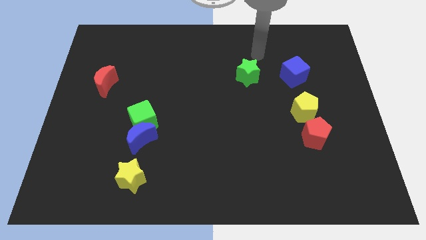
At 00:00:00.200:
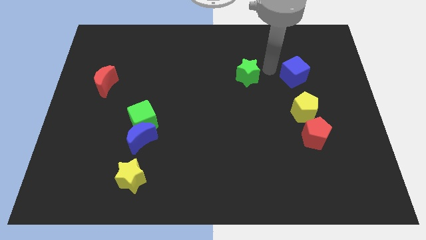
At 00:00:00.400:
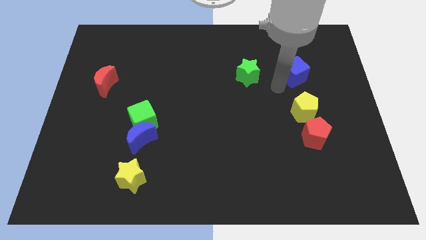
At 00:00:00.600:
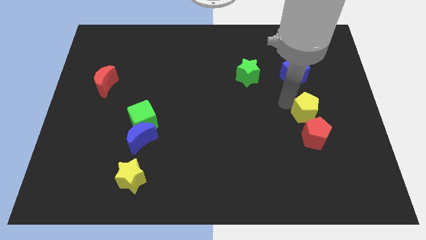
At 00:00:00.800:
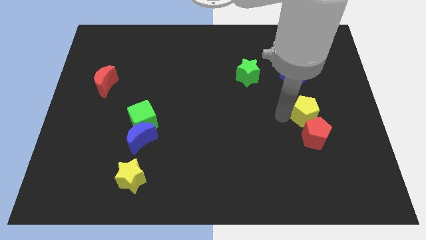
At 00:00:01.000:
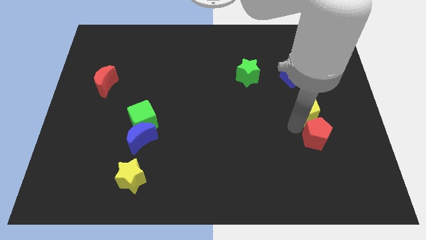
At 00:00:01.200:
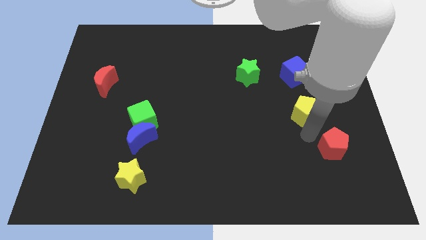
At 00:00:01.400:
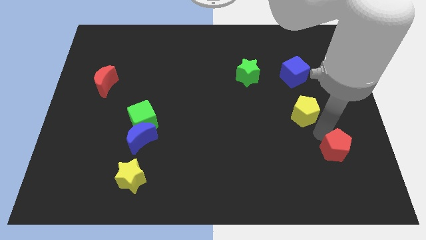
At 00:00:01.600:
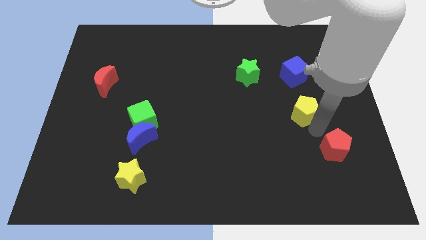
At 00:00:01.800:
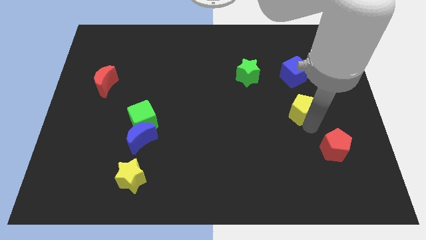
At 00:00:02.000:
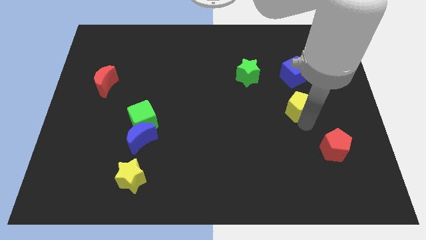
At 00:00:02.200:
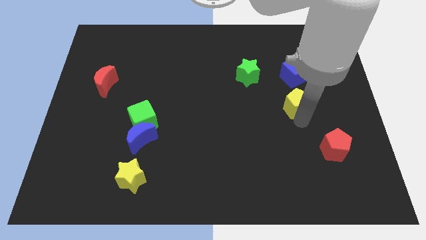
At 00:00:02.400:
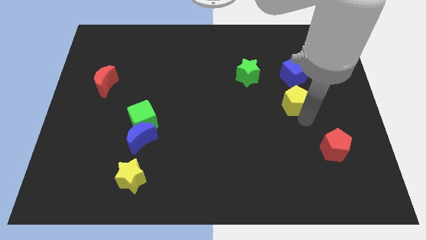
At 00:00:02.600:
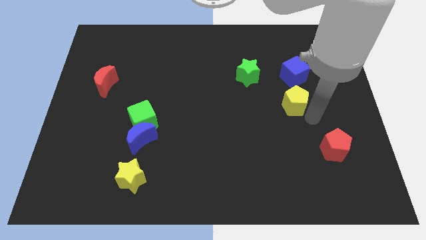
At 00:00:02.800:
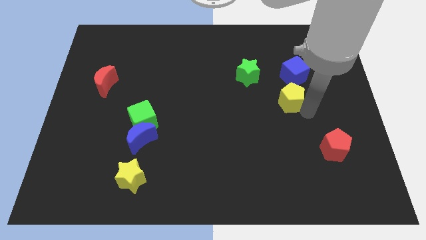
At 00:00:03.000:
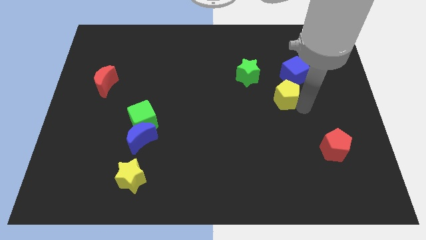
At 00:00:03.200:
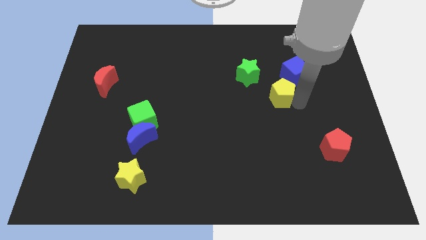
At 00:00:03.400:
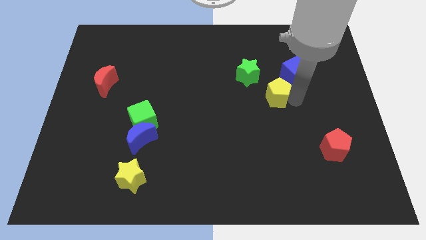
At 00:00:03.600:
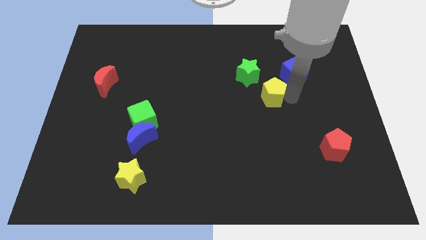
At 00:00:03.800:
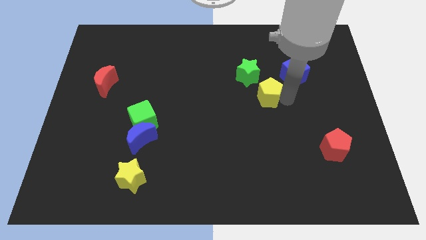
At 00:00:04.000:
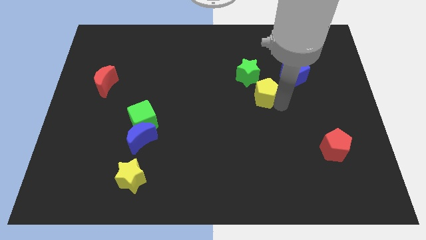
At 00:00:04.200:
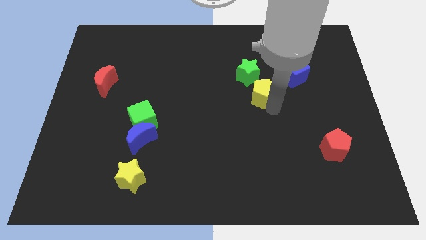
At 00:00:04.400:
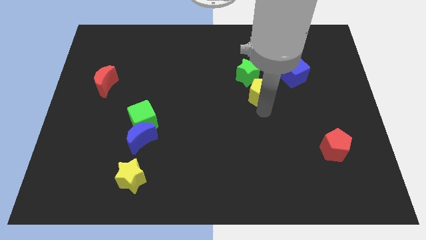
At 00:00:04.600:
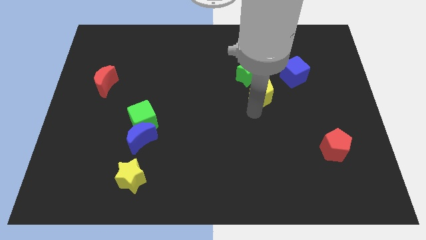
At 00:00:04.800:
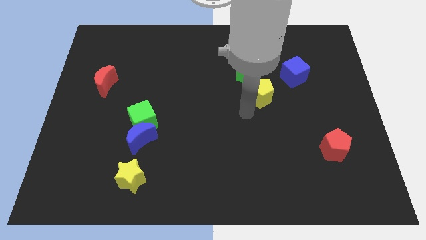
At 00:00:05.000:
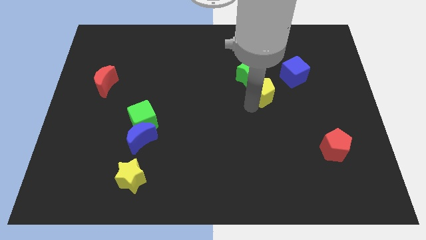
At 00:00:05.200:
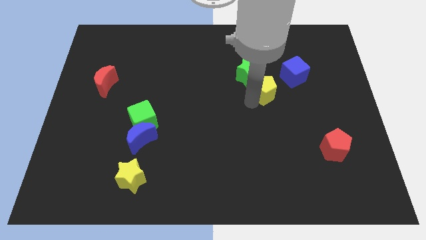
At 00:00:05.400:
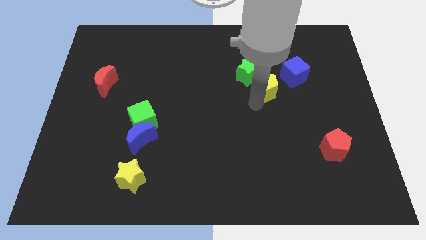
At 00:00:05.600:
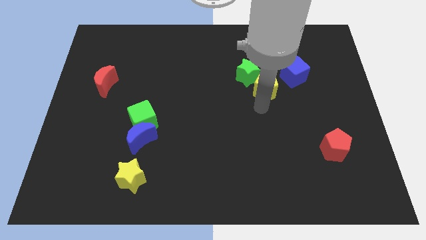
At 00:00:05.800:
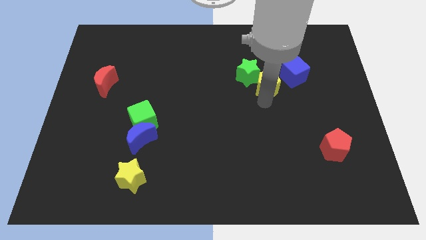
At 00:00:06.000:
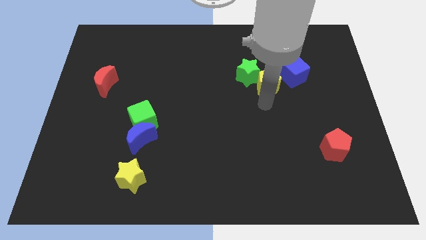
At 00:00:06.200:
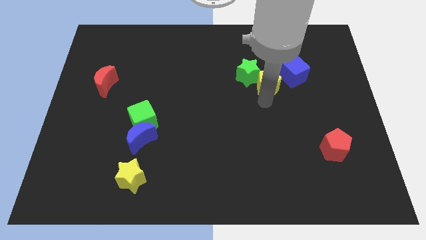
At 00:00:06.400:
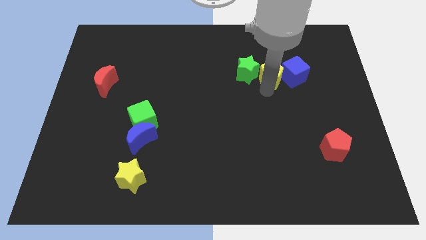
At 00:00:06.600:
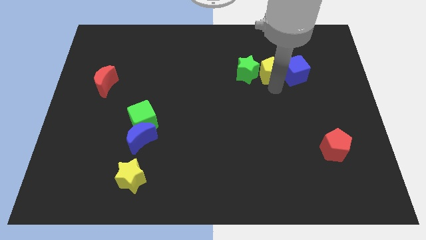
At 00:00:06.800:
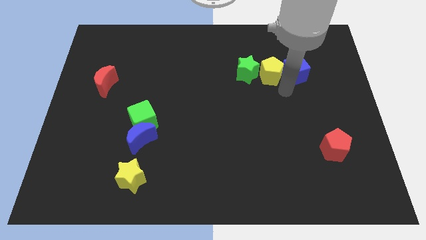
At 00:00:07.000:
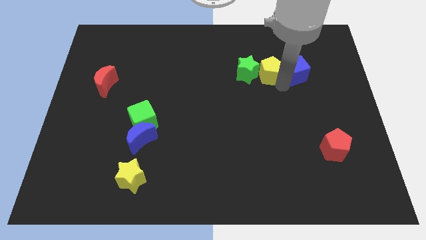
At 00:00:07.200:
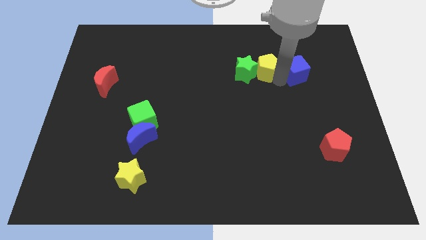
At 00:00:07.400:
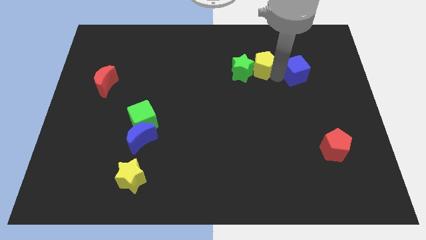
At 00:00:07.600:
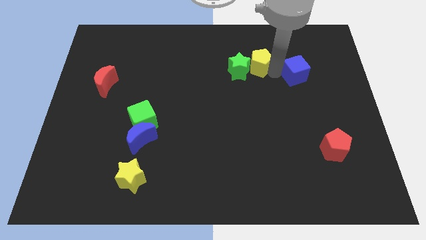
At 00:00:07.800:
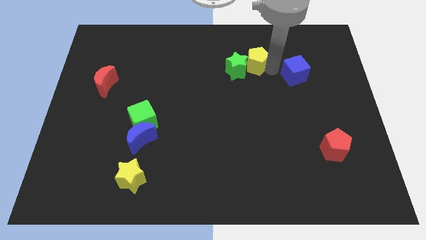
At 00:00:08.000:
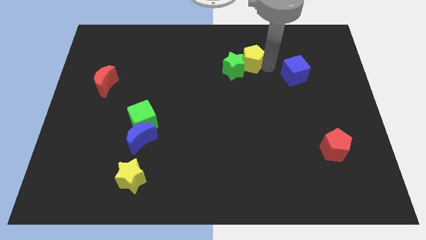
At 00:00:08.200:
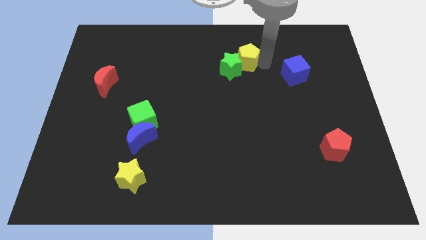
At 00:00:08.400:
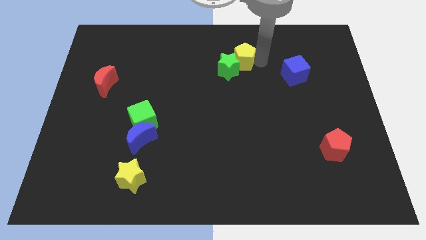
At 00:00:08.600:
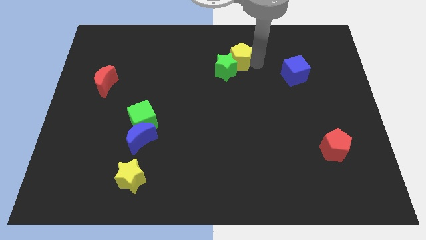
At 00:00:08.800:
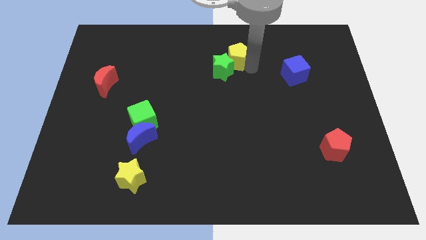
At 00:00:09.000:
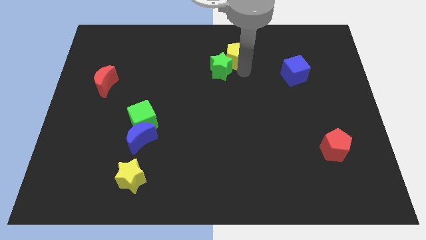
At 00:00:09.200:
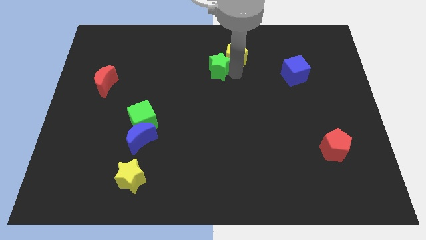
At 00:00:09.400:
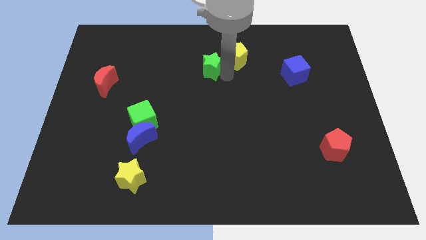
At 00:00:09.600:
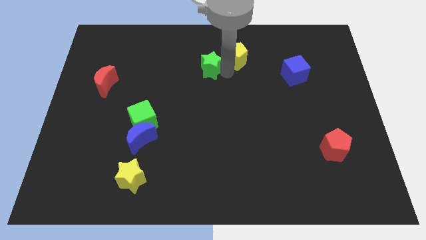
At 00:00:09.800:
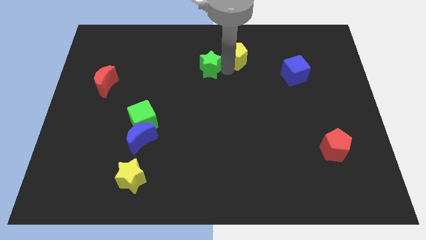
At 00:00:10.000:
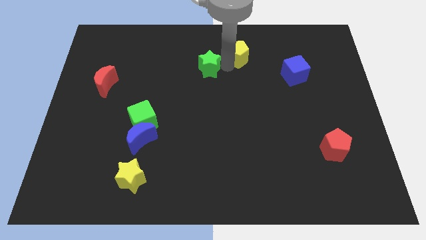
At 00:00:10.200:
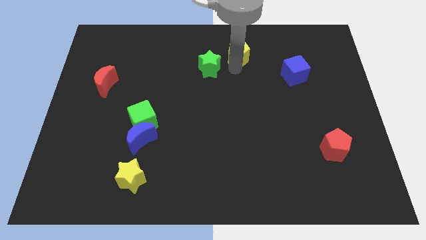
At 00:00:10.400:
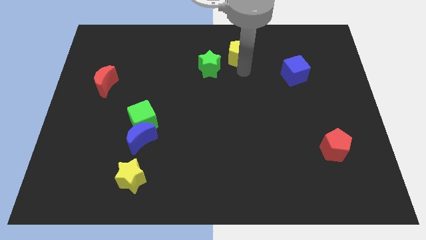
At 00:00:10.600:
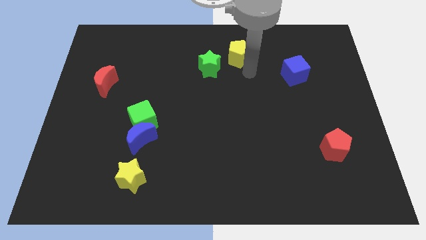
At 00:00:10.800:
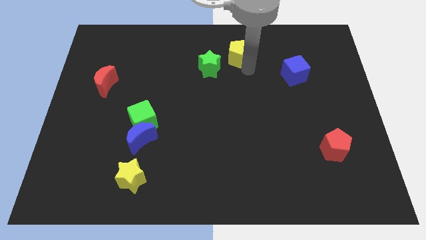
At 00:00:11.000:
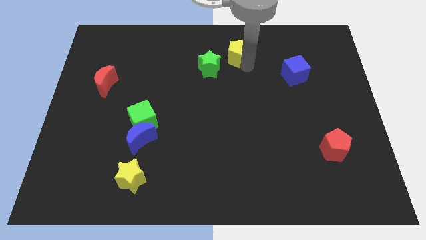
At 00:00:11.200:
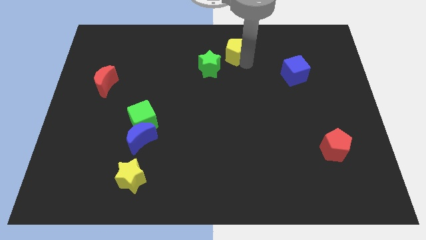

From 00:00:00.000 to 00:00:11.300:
slide the yellow pentagon to the top side
